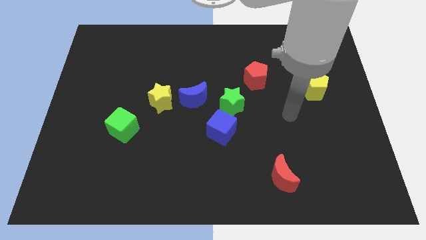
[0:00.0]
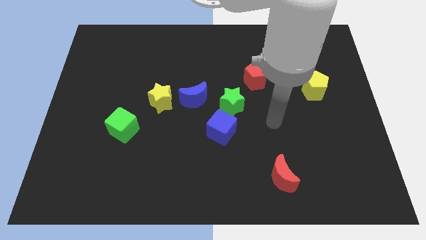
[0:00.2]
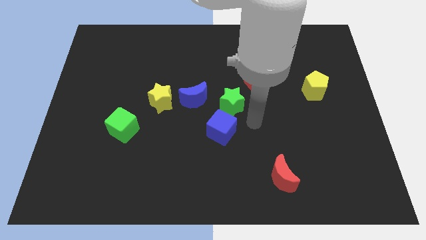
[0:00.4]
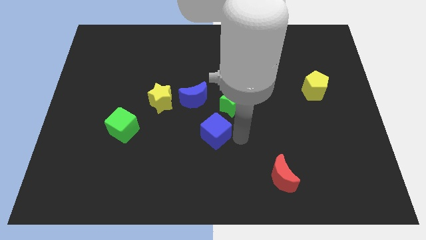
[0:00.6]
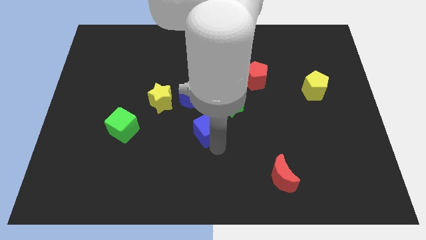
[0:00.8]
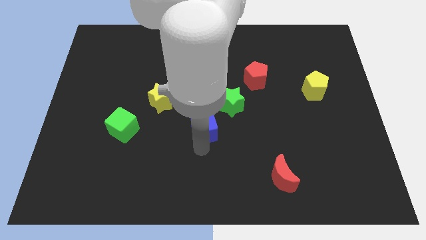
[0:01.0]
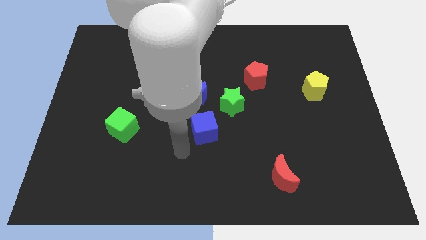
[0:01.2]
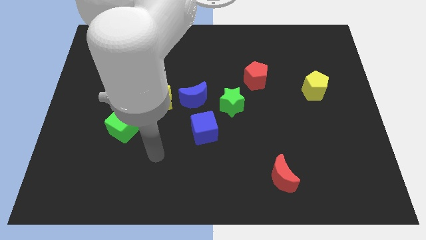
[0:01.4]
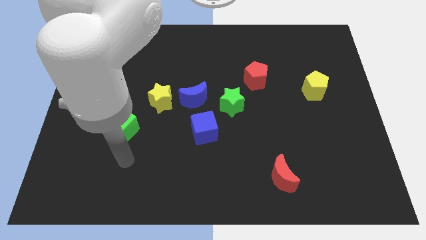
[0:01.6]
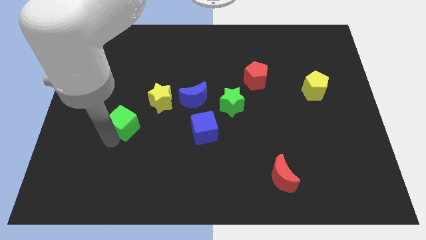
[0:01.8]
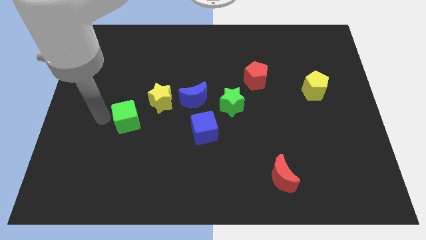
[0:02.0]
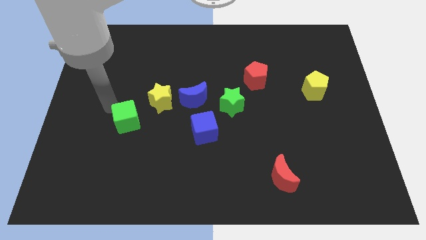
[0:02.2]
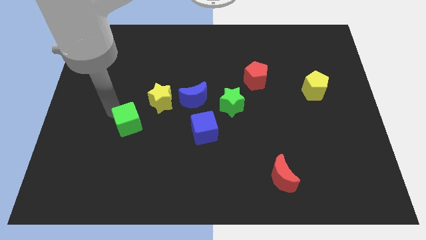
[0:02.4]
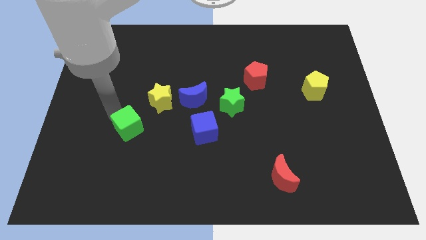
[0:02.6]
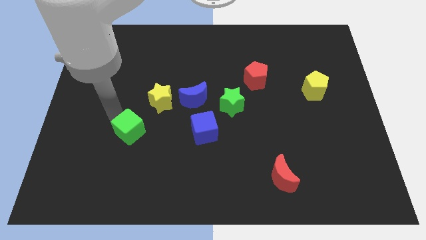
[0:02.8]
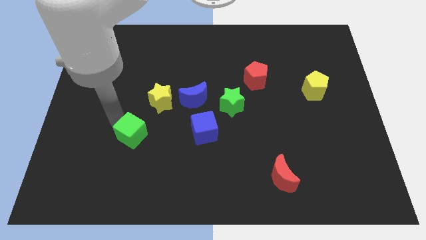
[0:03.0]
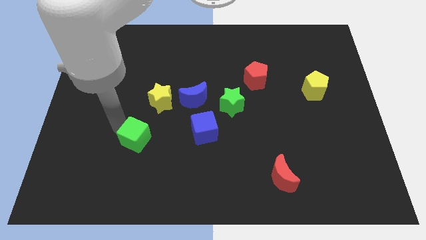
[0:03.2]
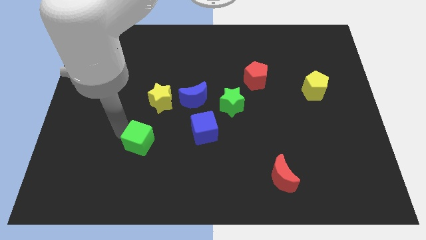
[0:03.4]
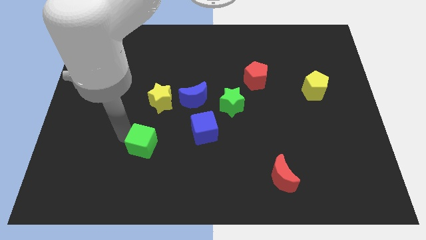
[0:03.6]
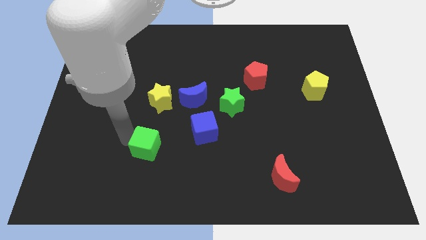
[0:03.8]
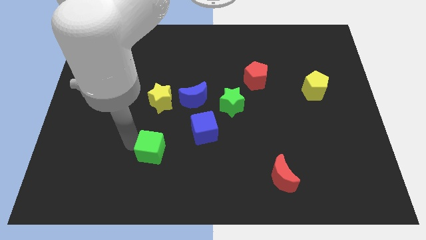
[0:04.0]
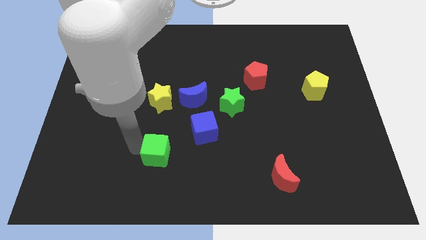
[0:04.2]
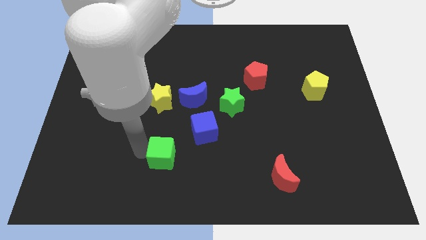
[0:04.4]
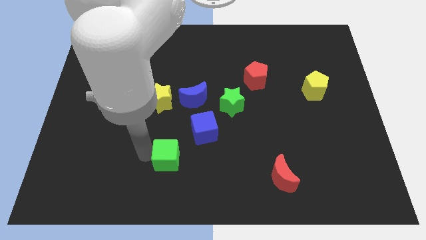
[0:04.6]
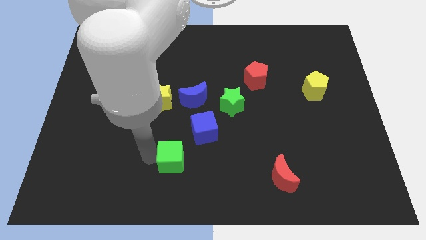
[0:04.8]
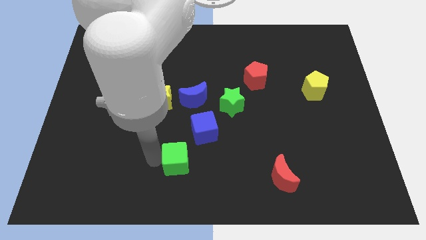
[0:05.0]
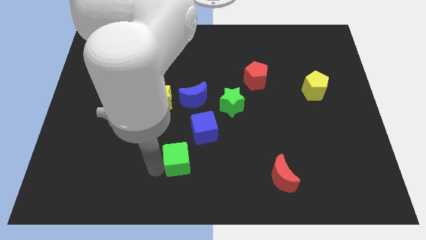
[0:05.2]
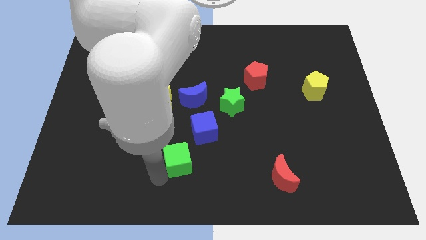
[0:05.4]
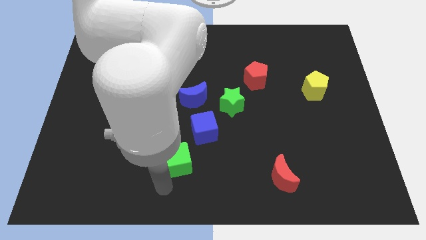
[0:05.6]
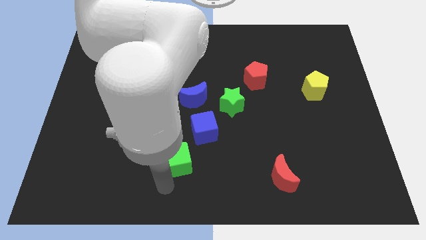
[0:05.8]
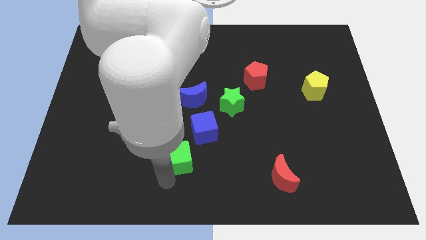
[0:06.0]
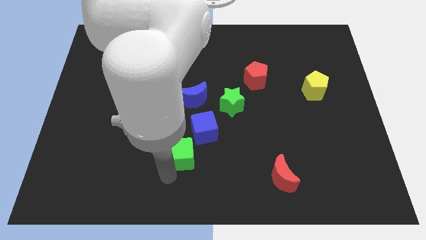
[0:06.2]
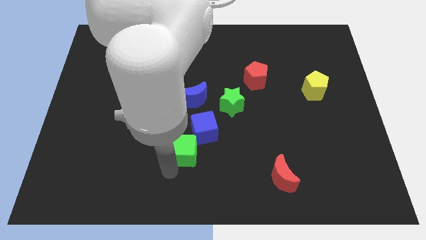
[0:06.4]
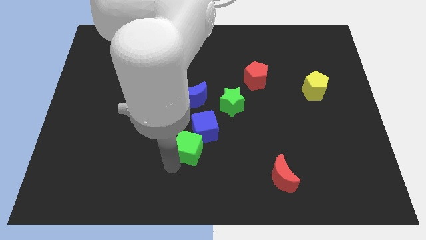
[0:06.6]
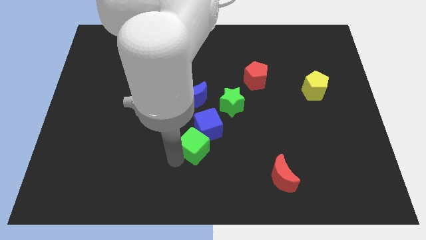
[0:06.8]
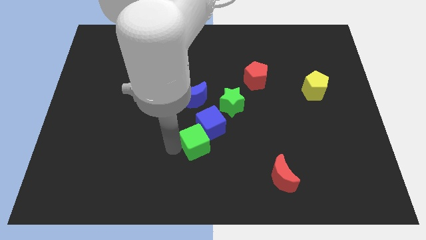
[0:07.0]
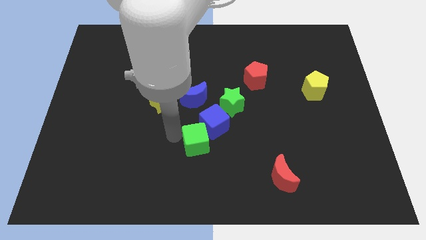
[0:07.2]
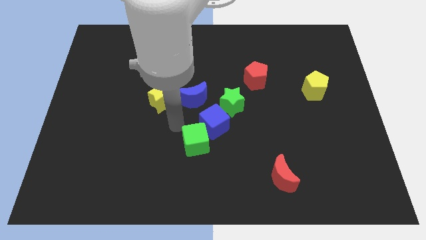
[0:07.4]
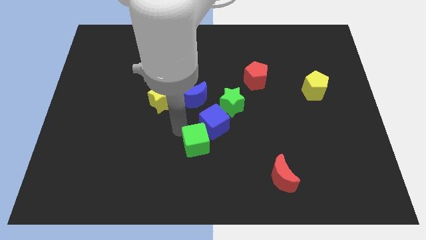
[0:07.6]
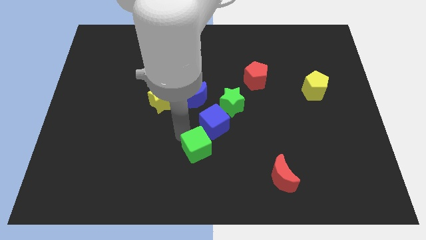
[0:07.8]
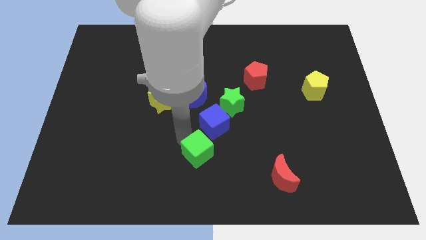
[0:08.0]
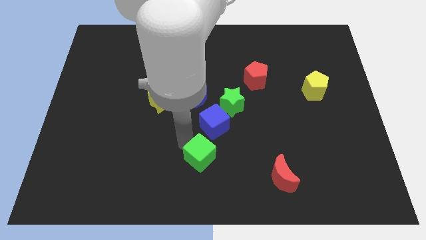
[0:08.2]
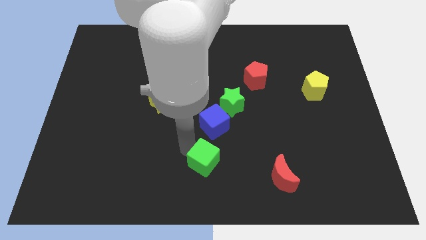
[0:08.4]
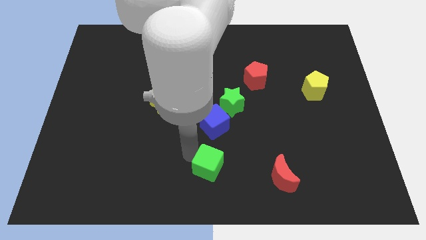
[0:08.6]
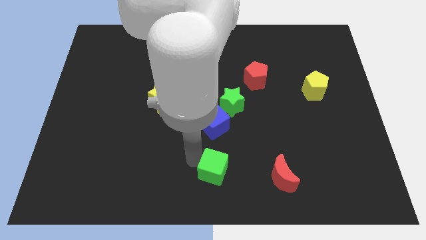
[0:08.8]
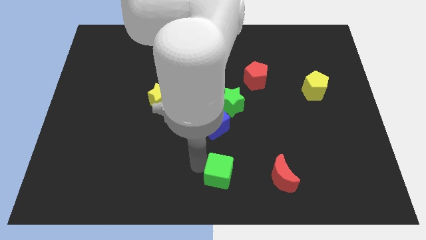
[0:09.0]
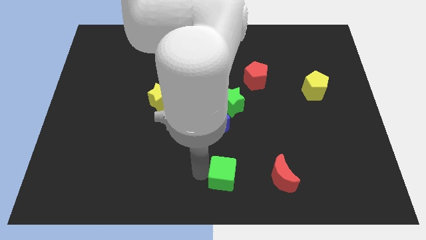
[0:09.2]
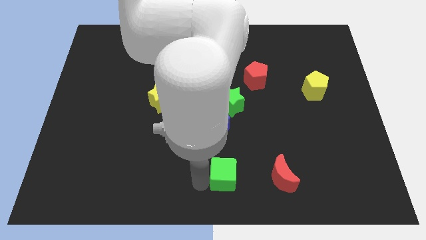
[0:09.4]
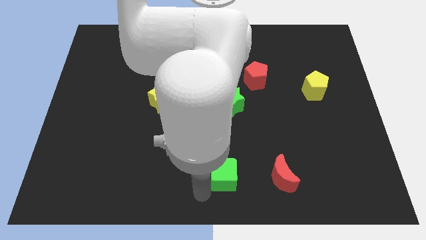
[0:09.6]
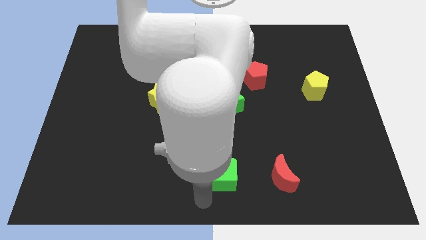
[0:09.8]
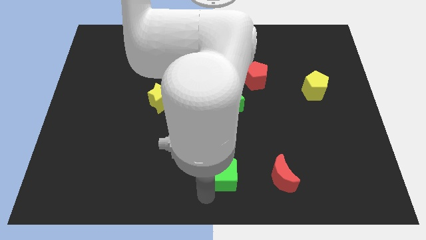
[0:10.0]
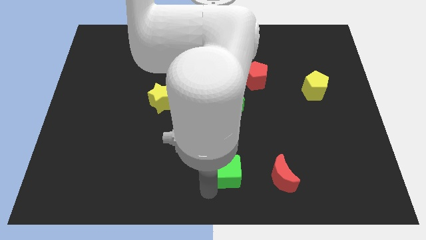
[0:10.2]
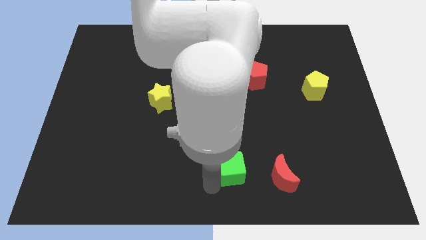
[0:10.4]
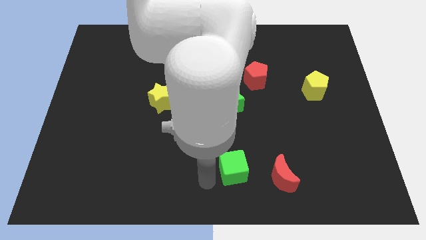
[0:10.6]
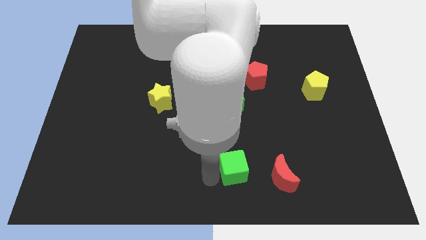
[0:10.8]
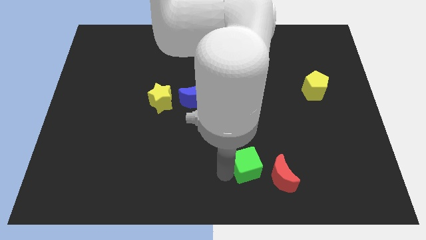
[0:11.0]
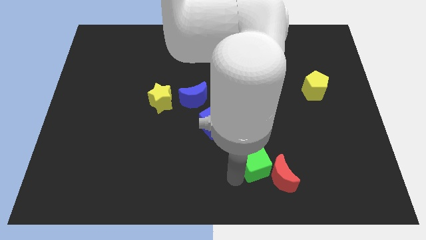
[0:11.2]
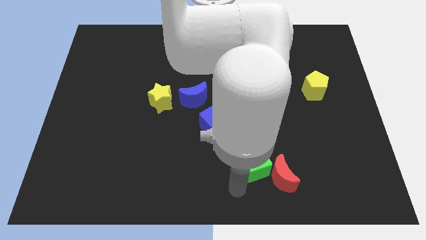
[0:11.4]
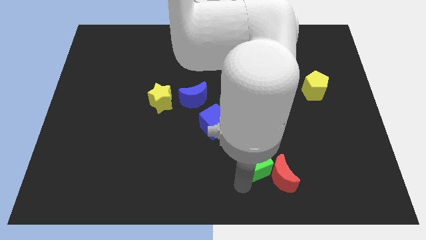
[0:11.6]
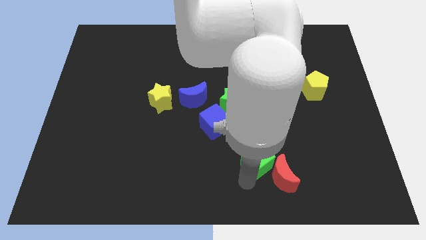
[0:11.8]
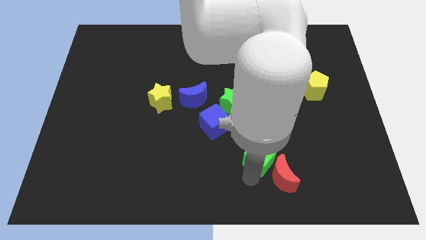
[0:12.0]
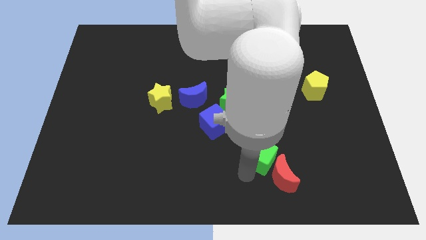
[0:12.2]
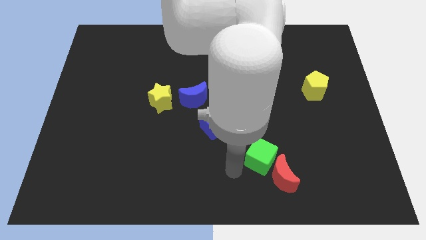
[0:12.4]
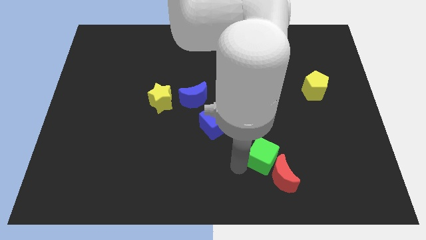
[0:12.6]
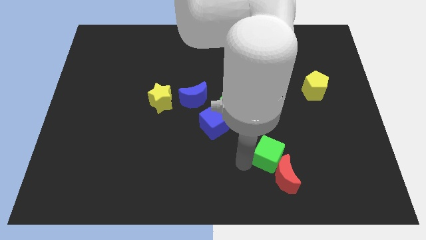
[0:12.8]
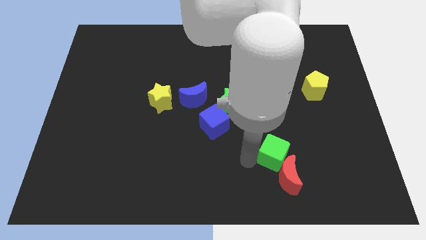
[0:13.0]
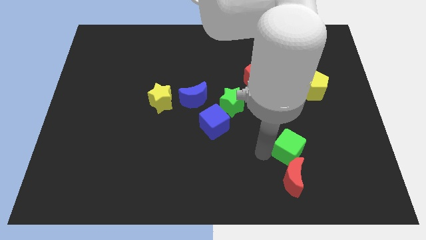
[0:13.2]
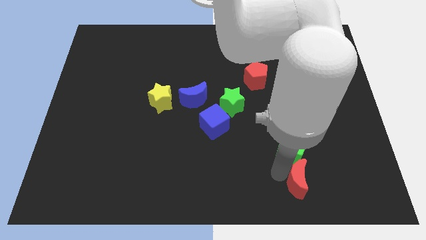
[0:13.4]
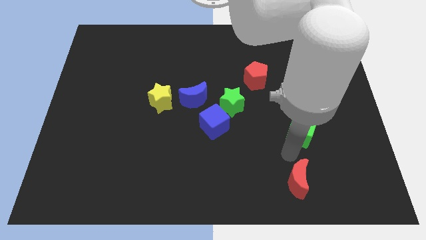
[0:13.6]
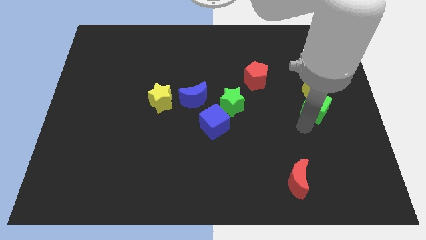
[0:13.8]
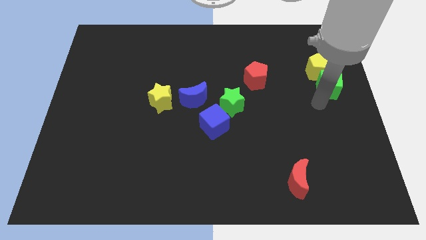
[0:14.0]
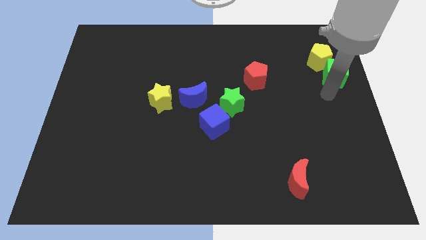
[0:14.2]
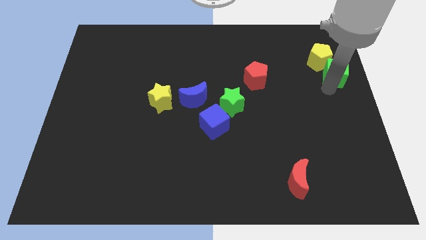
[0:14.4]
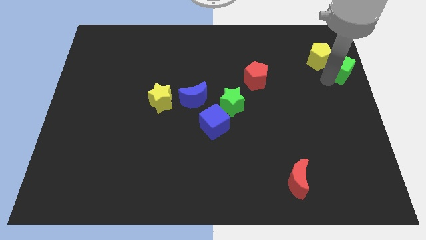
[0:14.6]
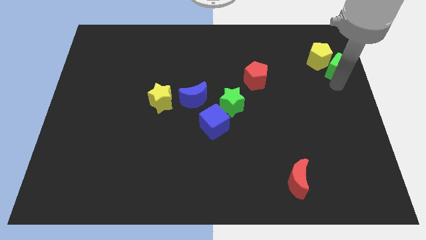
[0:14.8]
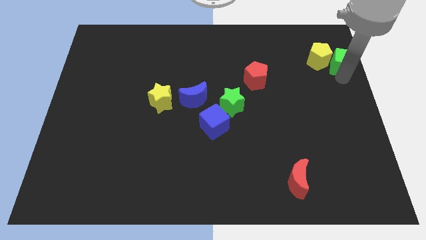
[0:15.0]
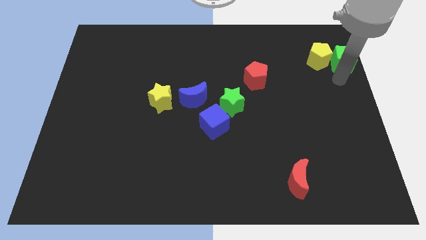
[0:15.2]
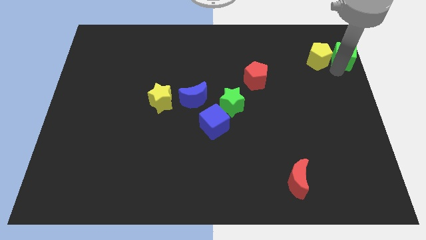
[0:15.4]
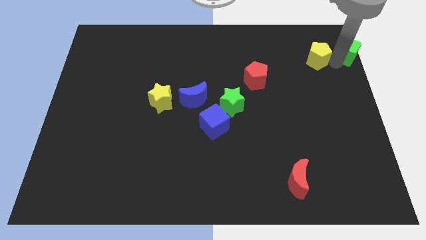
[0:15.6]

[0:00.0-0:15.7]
move the green cube to the upper right corner
